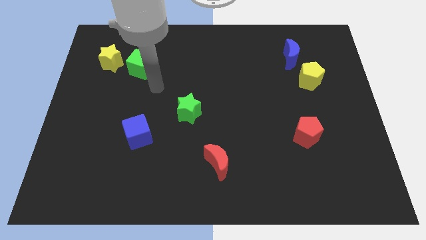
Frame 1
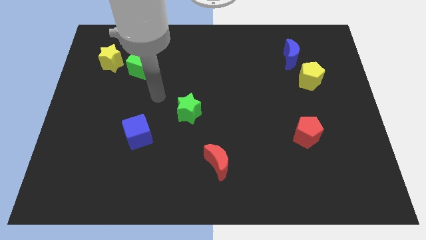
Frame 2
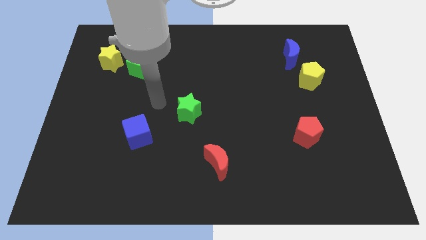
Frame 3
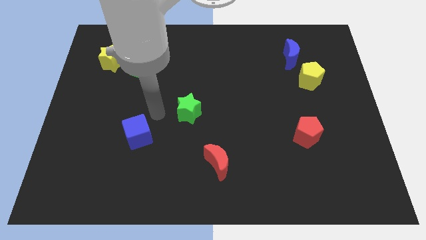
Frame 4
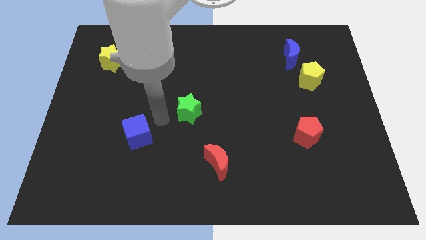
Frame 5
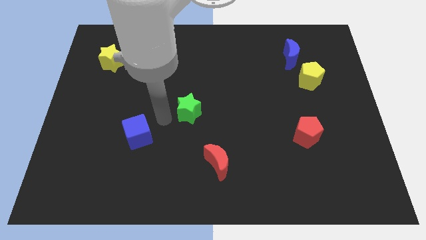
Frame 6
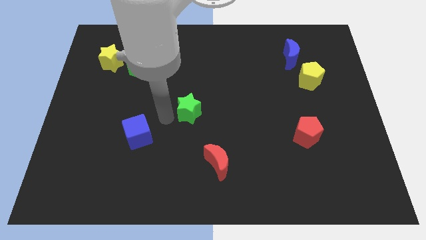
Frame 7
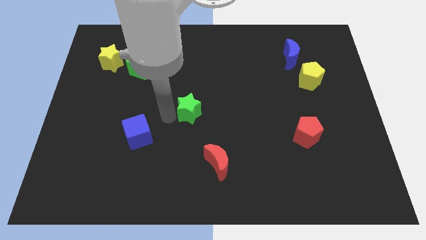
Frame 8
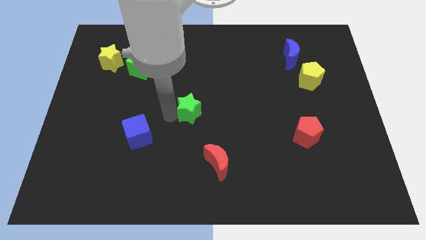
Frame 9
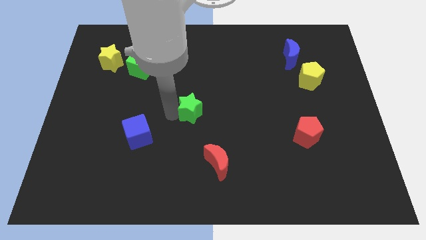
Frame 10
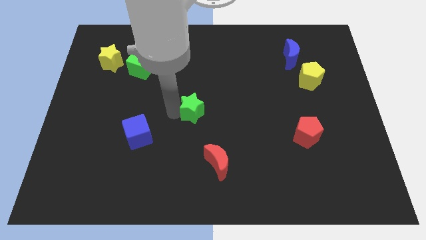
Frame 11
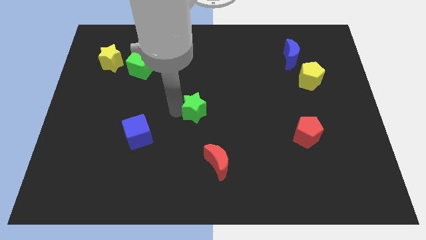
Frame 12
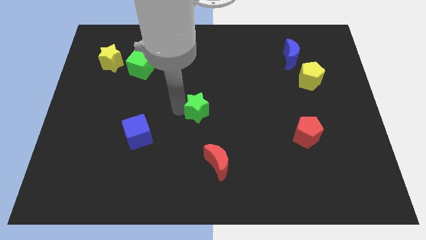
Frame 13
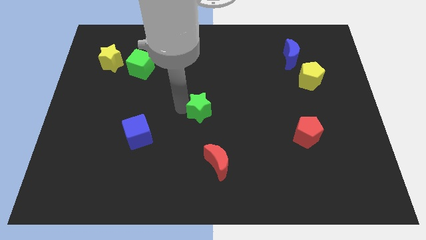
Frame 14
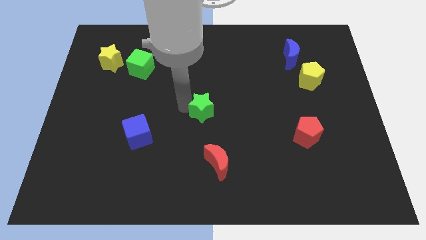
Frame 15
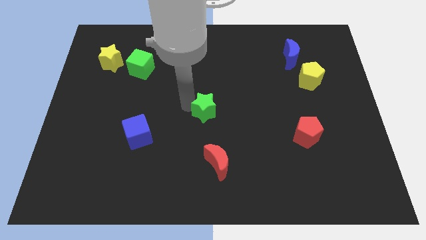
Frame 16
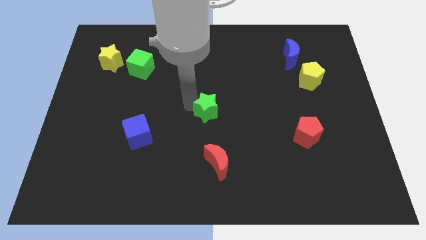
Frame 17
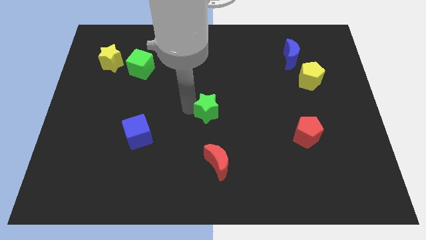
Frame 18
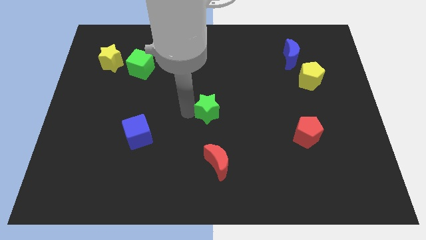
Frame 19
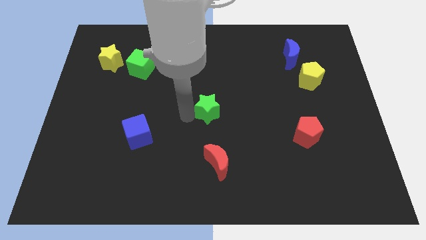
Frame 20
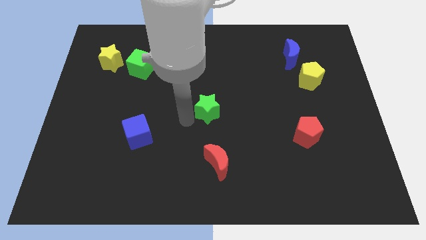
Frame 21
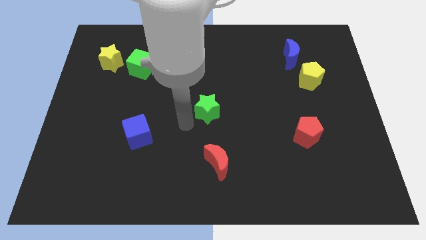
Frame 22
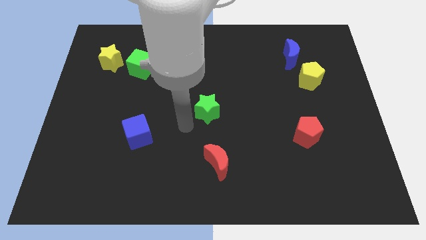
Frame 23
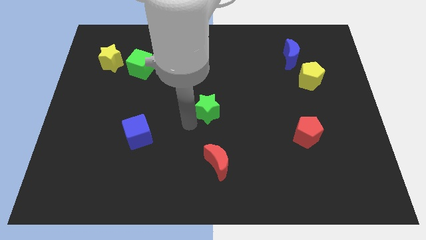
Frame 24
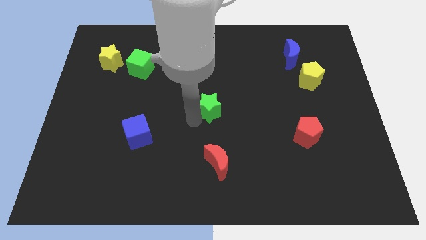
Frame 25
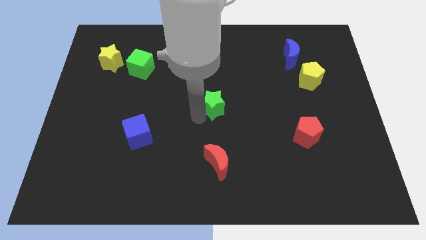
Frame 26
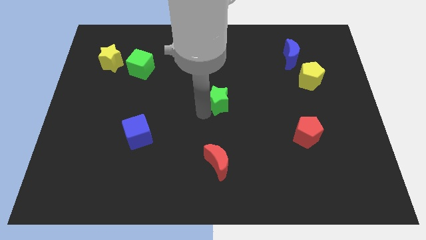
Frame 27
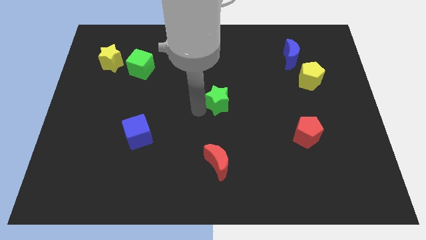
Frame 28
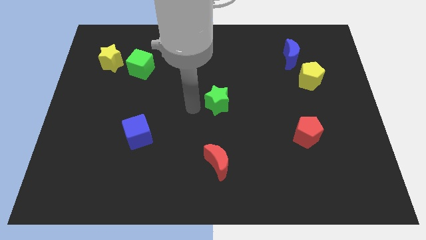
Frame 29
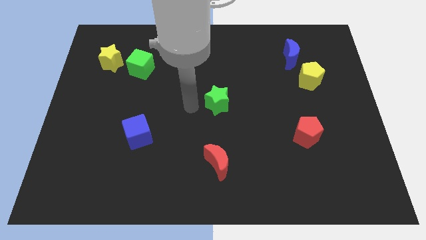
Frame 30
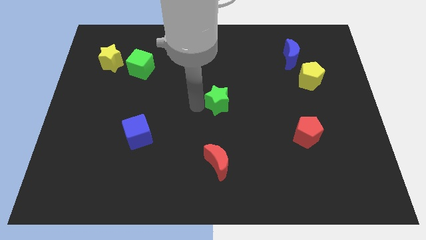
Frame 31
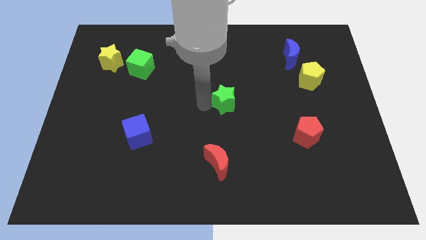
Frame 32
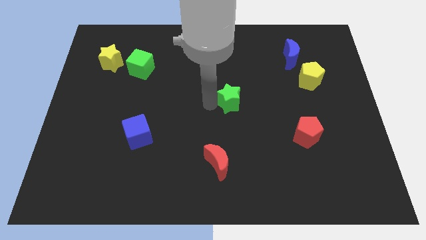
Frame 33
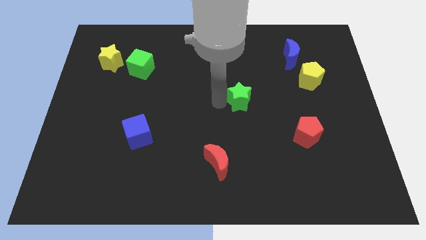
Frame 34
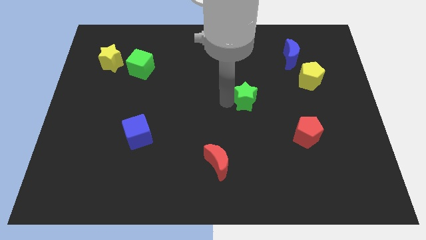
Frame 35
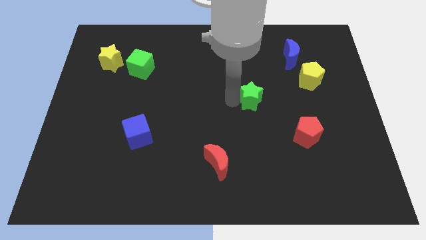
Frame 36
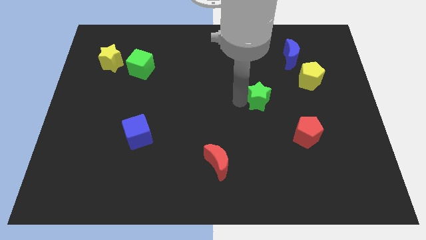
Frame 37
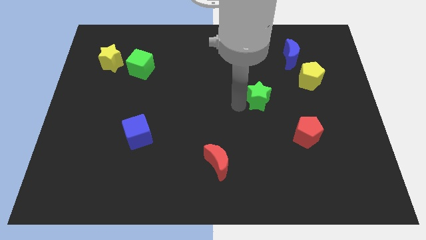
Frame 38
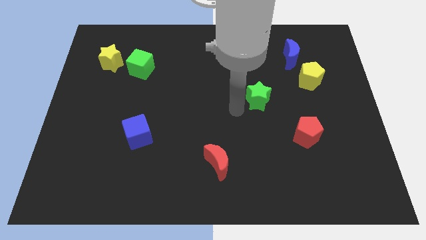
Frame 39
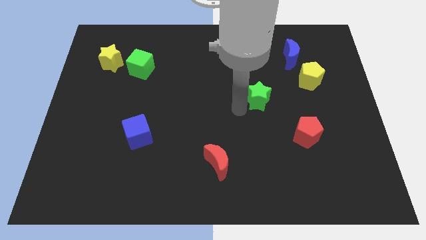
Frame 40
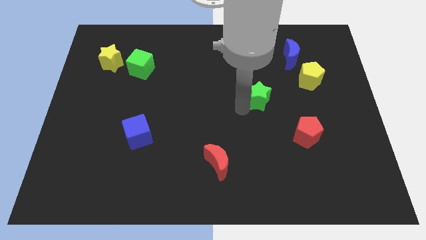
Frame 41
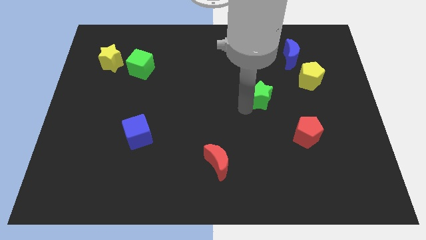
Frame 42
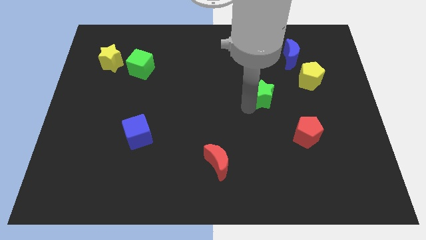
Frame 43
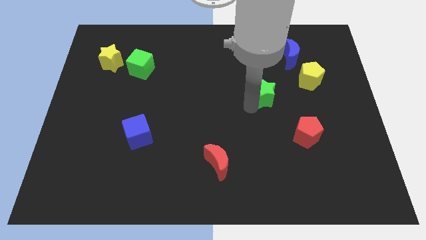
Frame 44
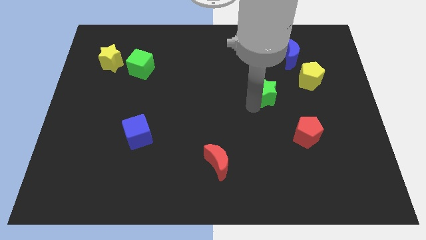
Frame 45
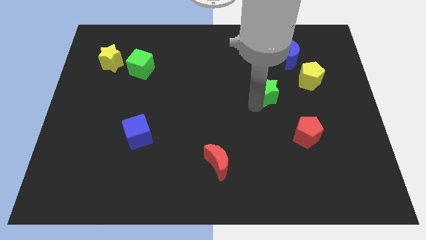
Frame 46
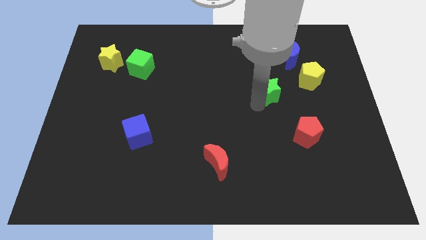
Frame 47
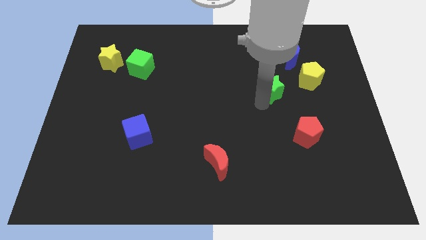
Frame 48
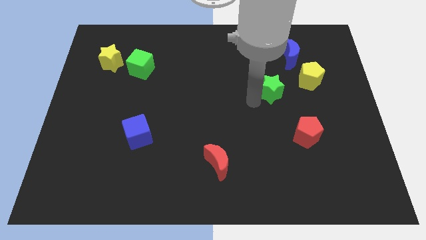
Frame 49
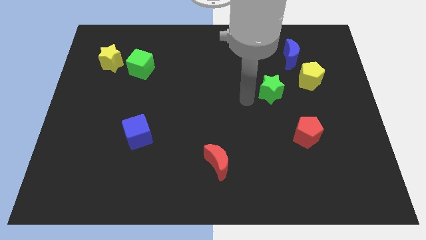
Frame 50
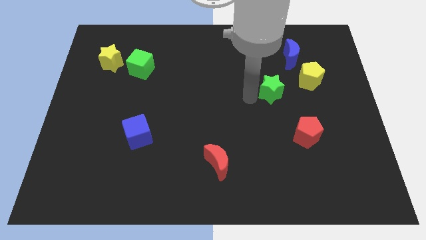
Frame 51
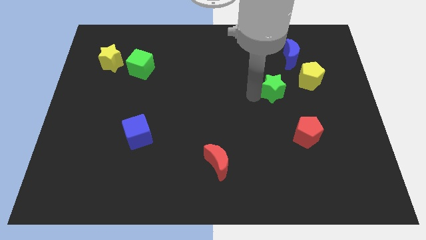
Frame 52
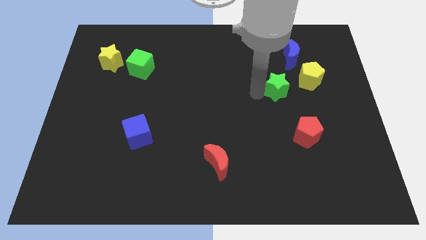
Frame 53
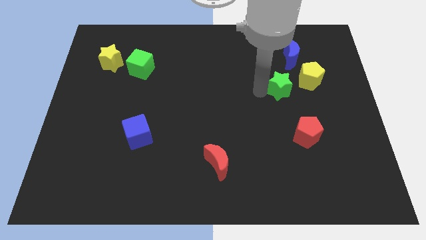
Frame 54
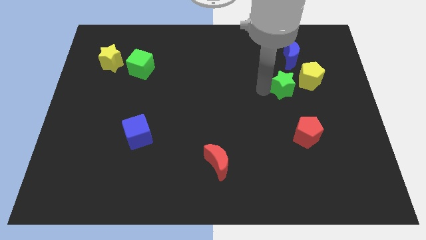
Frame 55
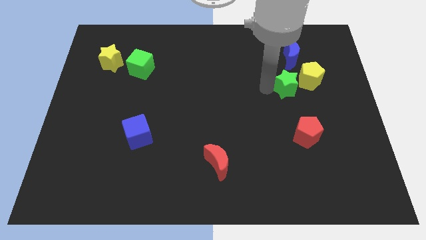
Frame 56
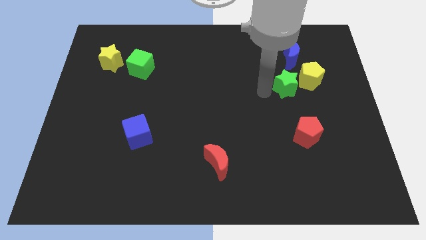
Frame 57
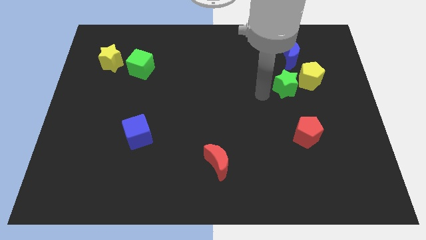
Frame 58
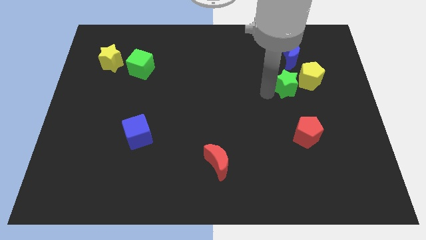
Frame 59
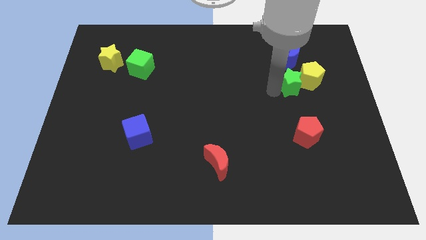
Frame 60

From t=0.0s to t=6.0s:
put the green star close to the yellow pentagon

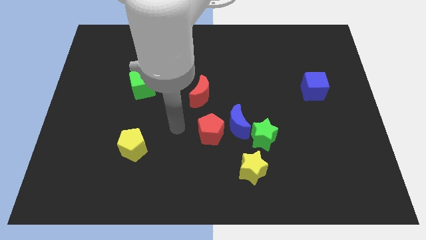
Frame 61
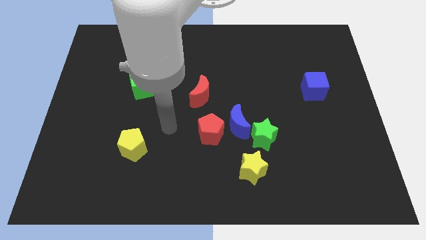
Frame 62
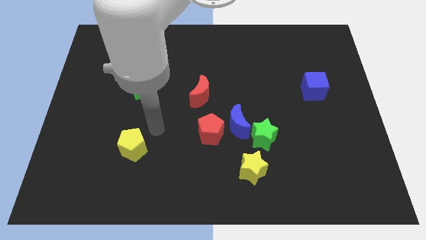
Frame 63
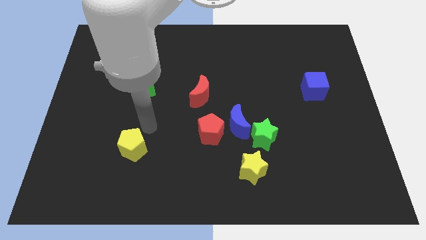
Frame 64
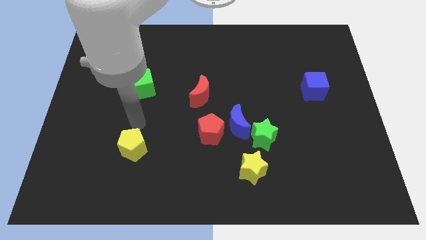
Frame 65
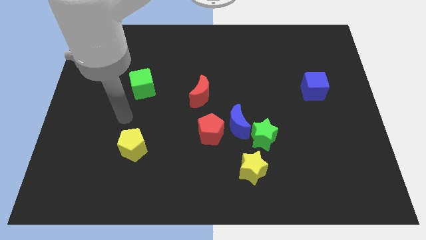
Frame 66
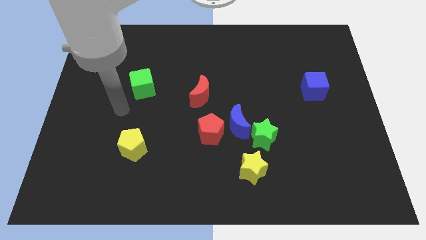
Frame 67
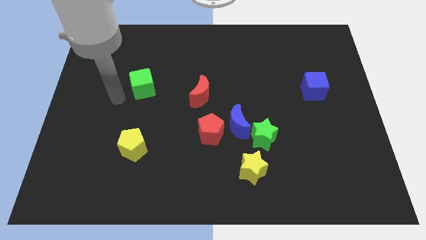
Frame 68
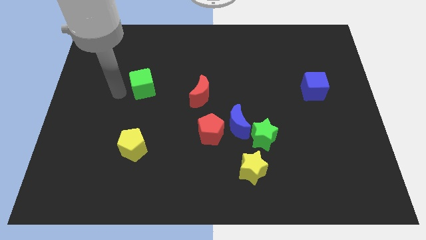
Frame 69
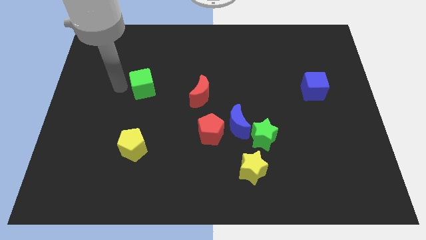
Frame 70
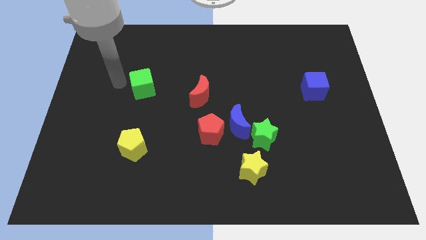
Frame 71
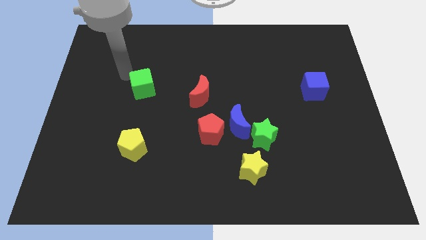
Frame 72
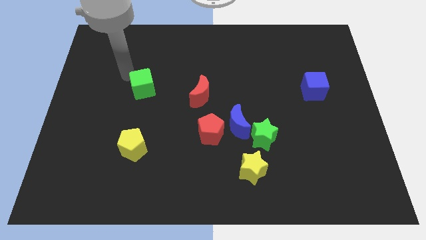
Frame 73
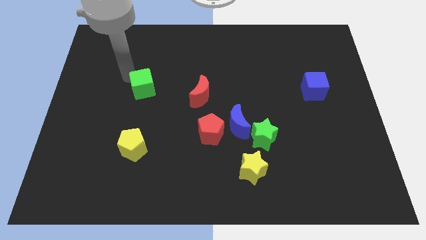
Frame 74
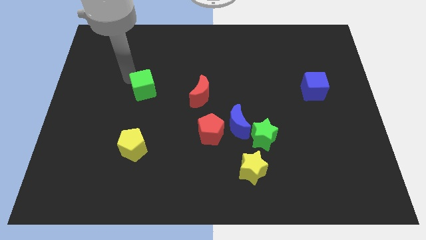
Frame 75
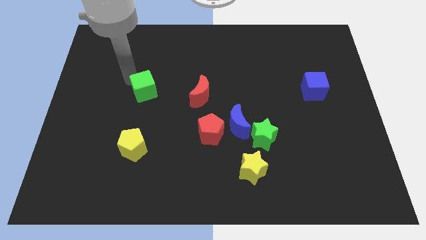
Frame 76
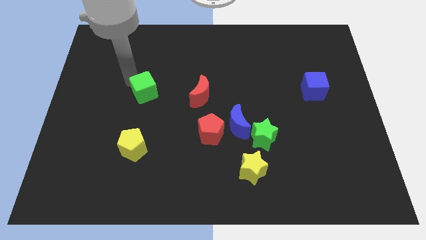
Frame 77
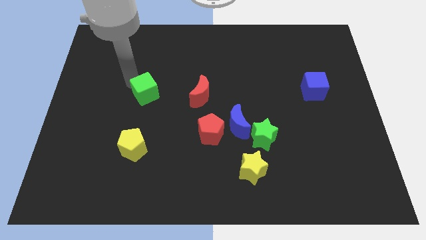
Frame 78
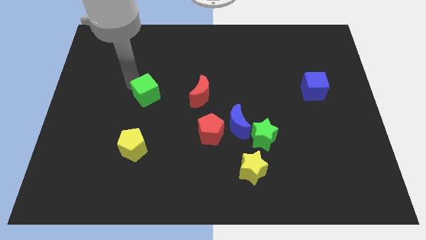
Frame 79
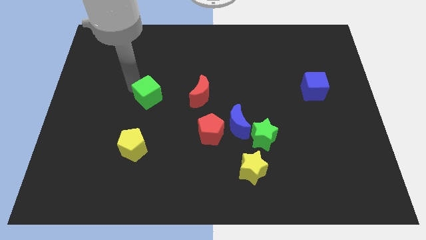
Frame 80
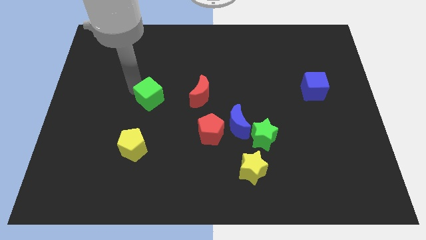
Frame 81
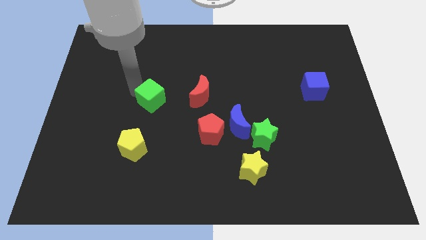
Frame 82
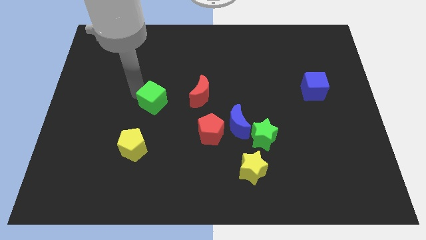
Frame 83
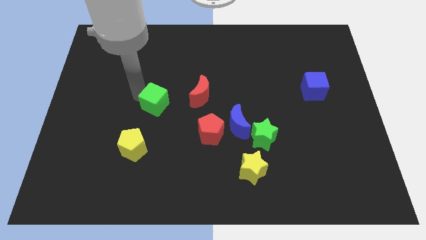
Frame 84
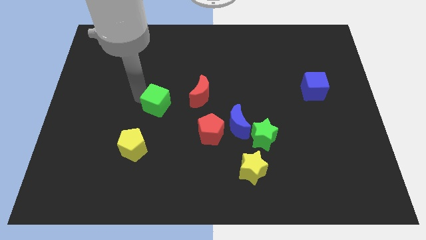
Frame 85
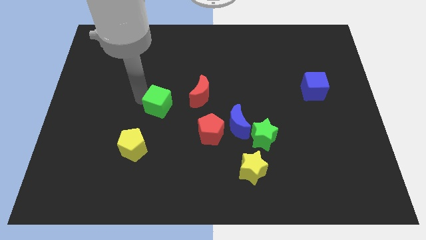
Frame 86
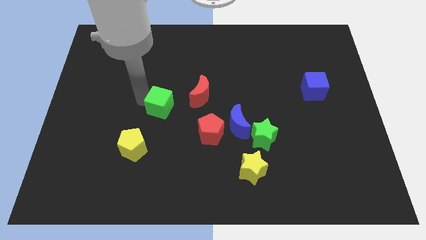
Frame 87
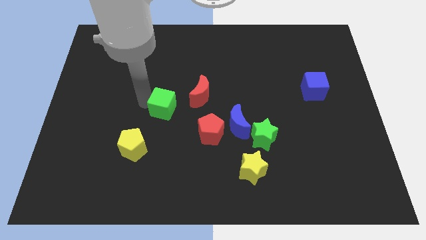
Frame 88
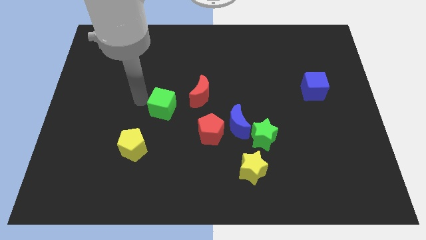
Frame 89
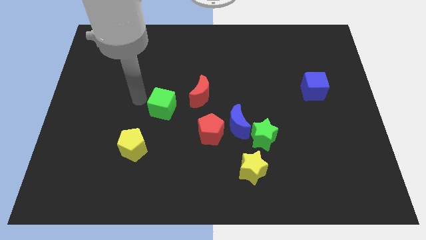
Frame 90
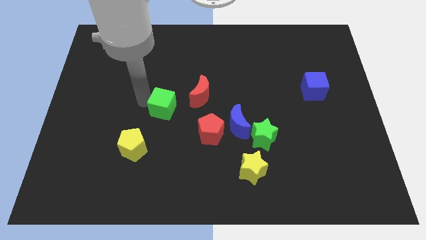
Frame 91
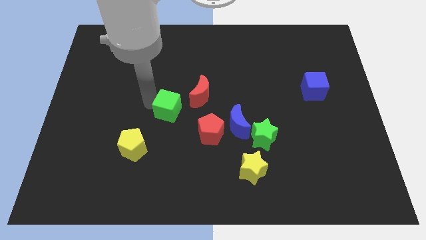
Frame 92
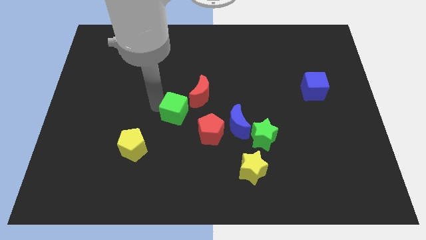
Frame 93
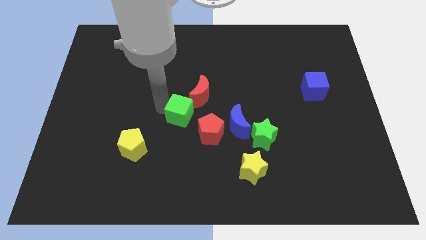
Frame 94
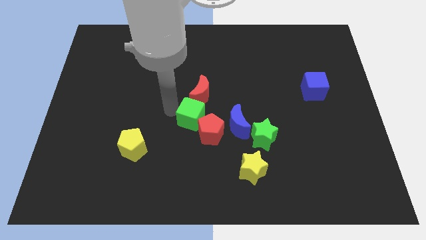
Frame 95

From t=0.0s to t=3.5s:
push the green cube towards the red pentagon
